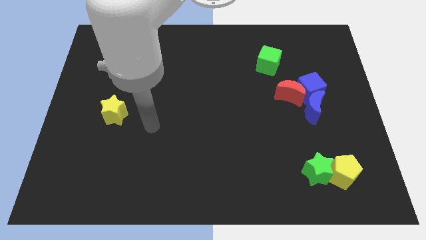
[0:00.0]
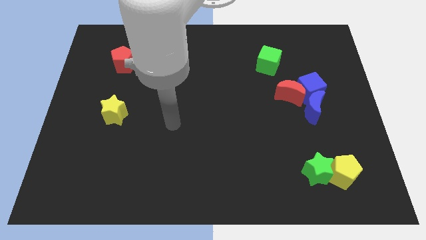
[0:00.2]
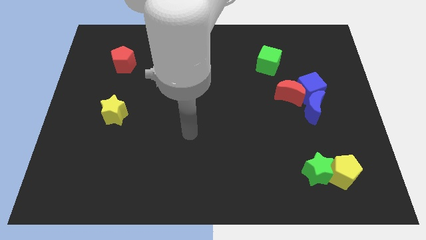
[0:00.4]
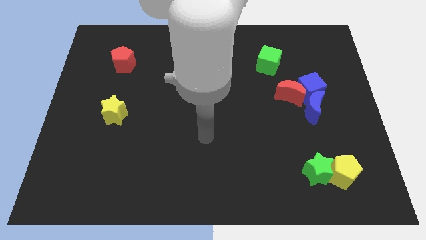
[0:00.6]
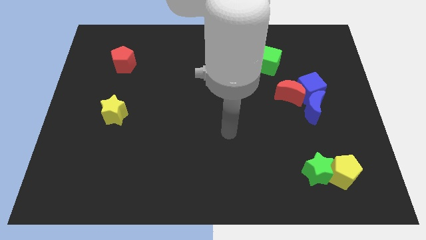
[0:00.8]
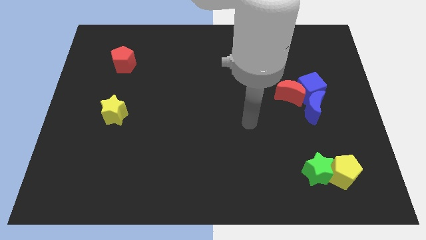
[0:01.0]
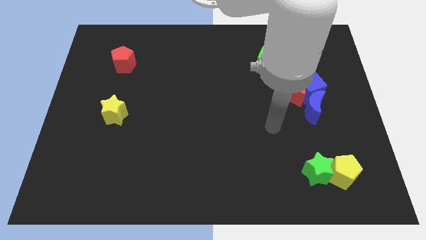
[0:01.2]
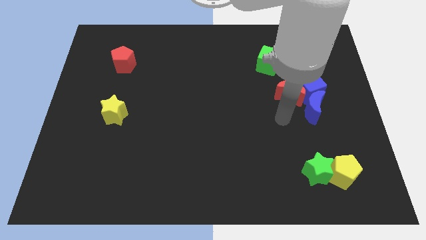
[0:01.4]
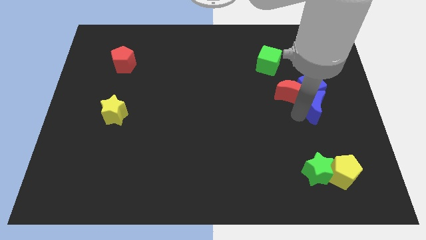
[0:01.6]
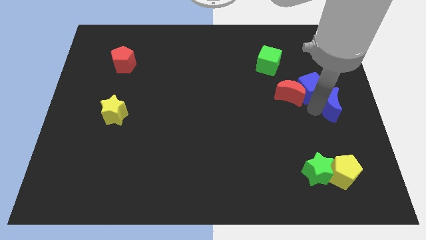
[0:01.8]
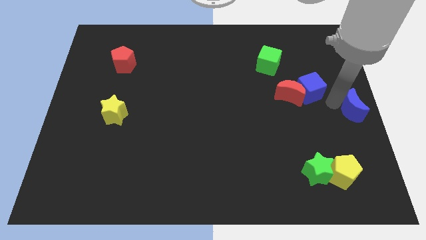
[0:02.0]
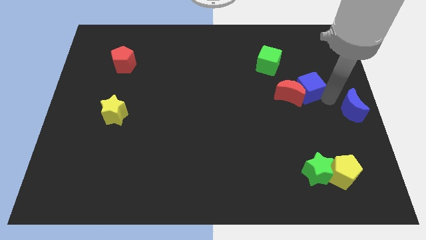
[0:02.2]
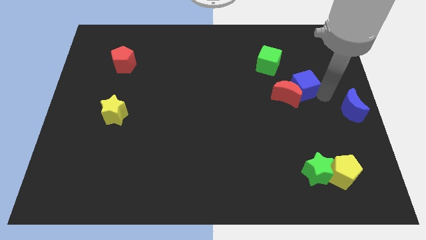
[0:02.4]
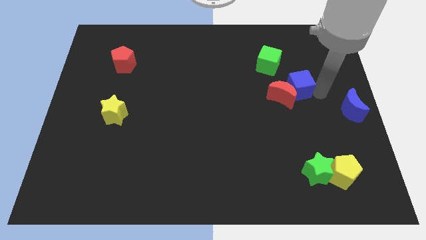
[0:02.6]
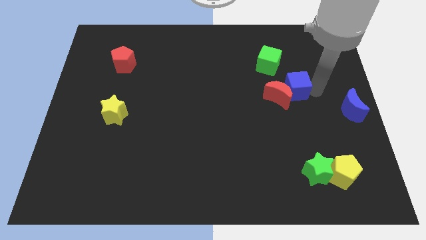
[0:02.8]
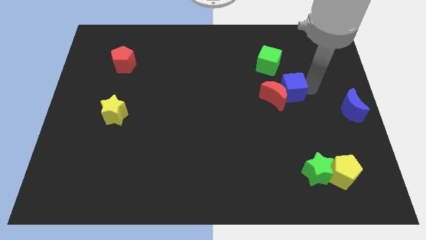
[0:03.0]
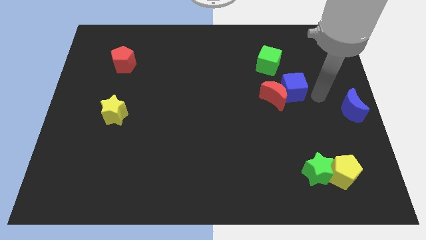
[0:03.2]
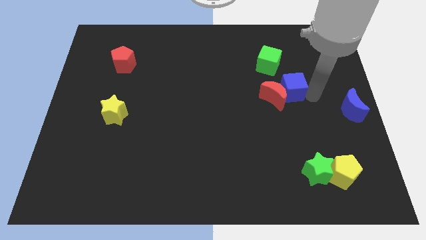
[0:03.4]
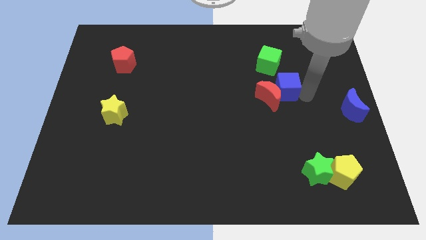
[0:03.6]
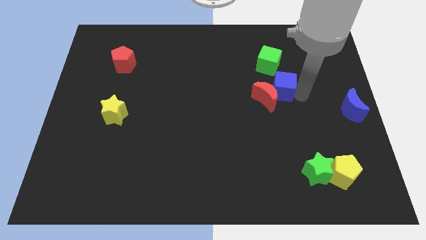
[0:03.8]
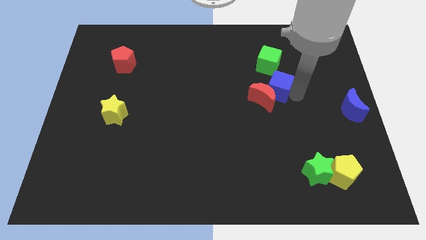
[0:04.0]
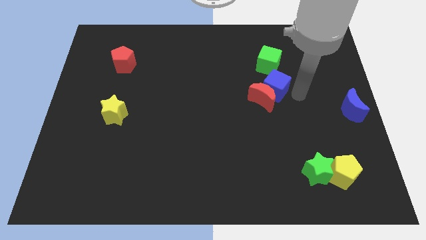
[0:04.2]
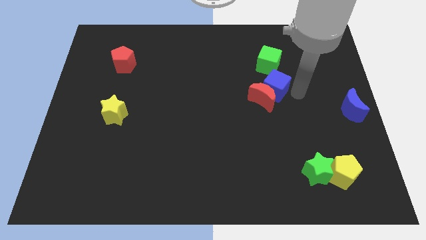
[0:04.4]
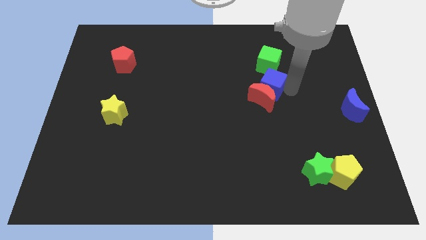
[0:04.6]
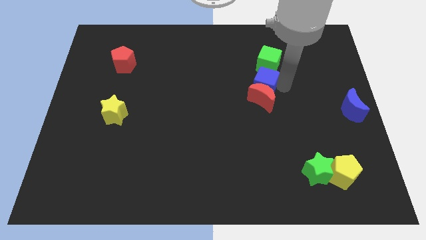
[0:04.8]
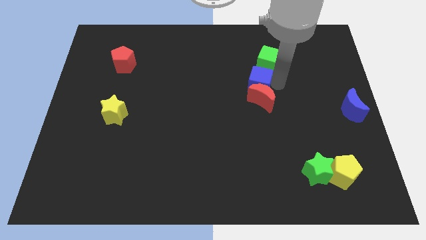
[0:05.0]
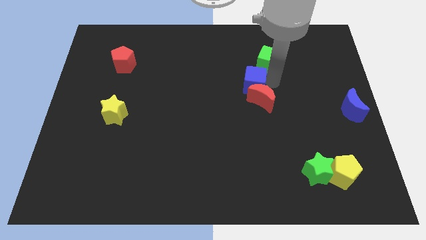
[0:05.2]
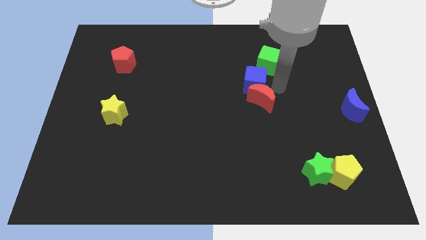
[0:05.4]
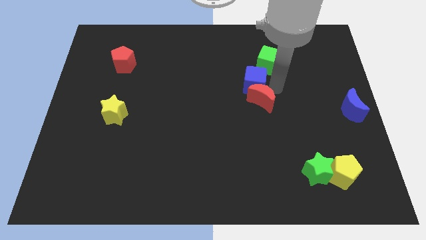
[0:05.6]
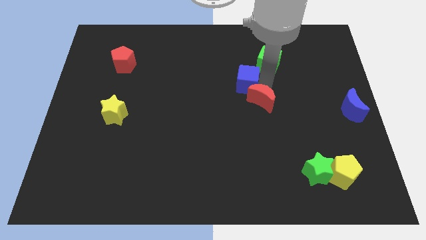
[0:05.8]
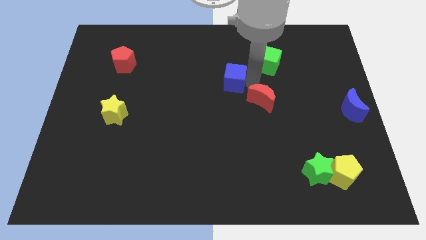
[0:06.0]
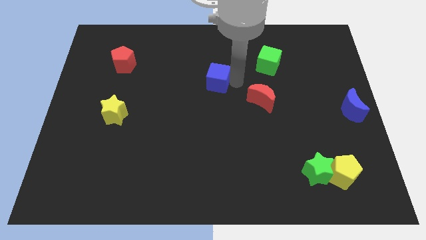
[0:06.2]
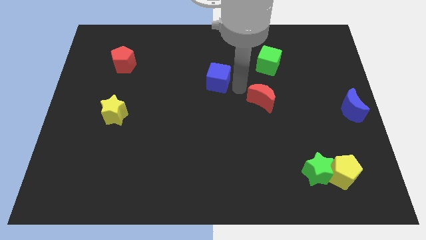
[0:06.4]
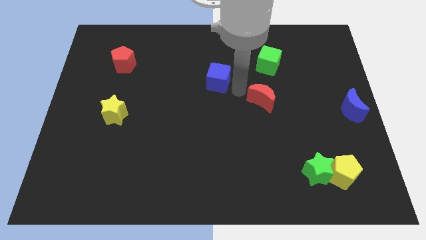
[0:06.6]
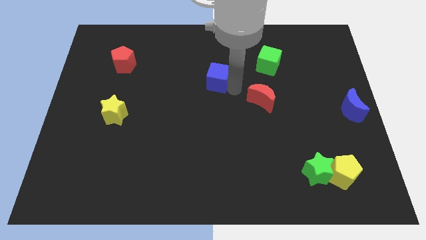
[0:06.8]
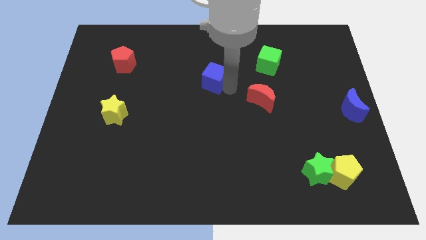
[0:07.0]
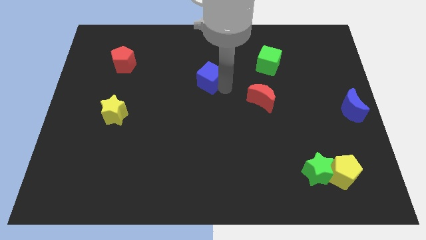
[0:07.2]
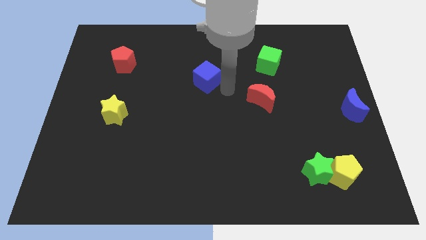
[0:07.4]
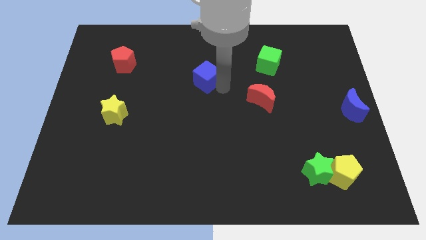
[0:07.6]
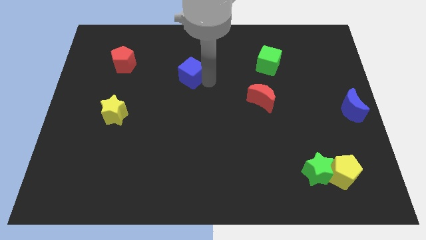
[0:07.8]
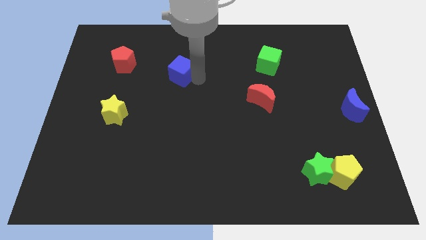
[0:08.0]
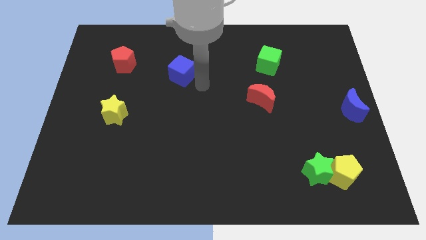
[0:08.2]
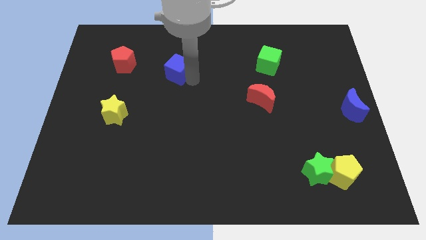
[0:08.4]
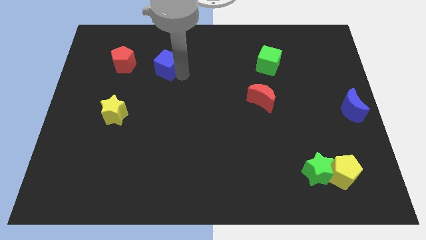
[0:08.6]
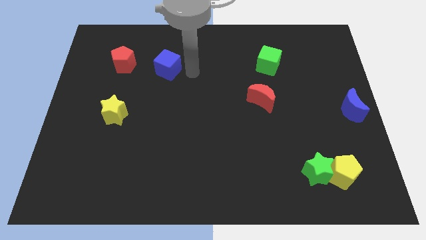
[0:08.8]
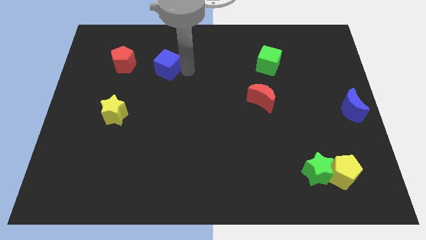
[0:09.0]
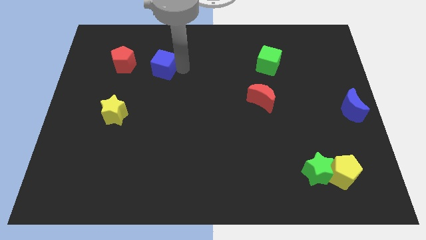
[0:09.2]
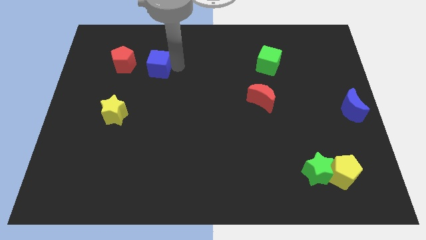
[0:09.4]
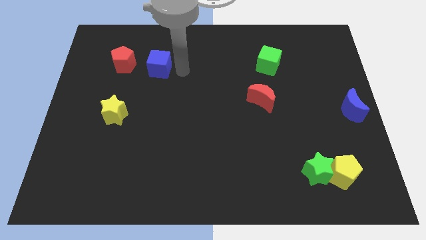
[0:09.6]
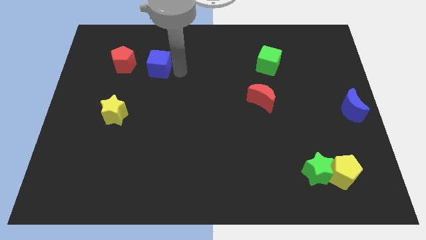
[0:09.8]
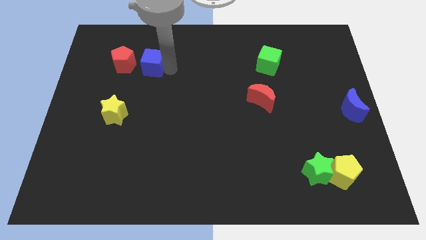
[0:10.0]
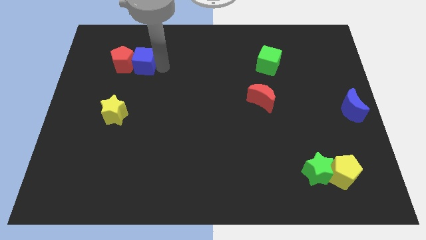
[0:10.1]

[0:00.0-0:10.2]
put the blue cube next to the red pentagon

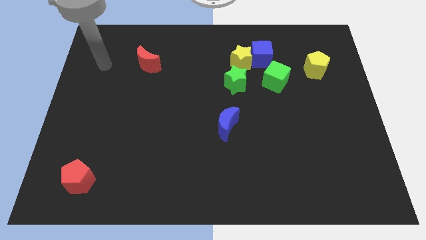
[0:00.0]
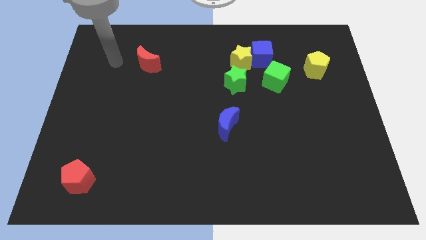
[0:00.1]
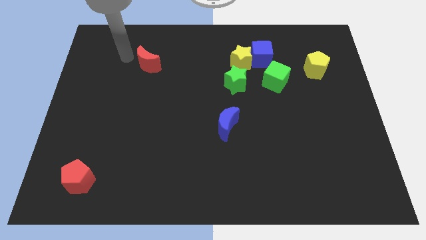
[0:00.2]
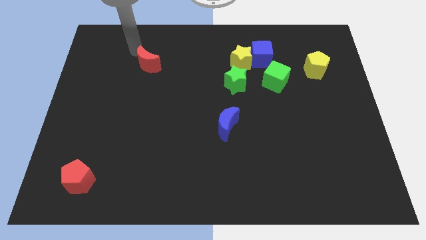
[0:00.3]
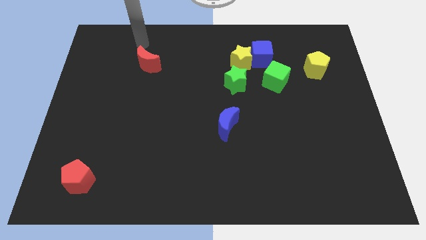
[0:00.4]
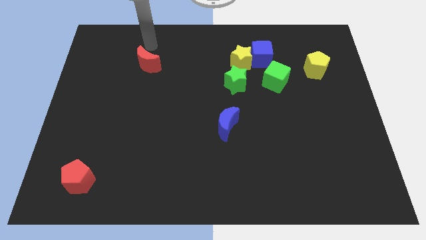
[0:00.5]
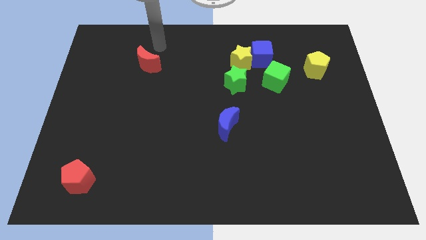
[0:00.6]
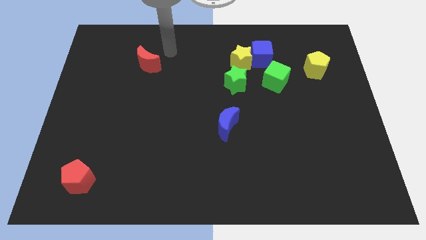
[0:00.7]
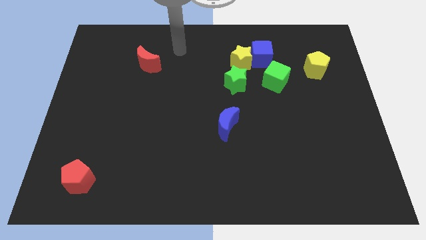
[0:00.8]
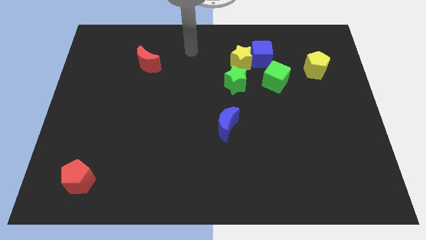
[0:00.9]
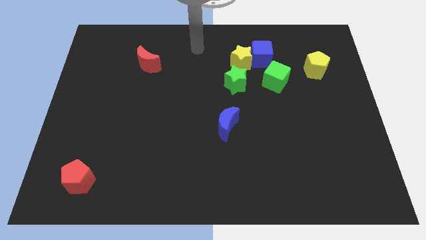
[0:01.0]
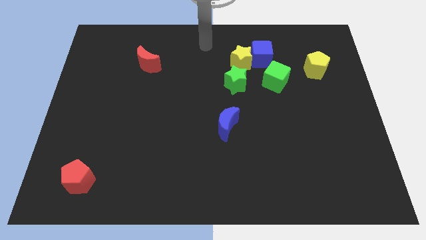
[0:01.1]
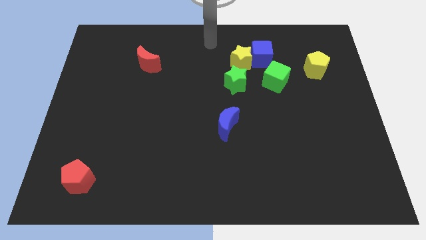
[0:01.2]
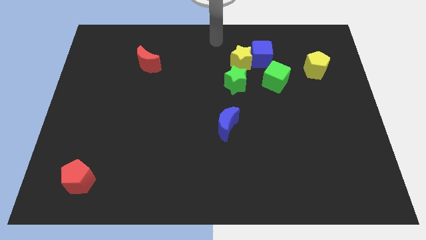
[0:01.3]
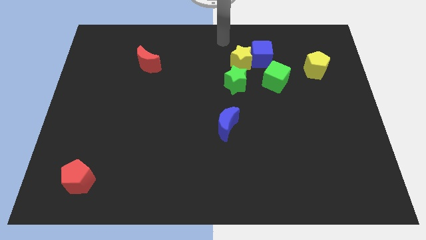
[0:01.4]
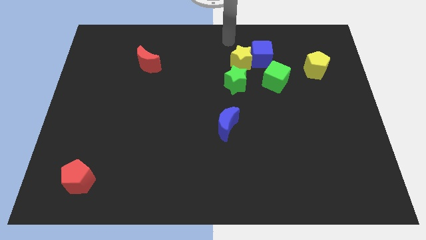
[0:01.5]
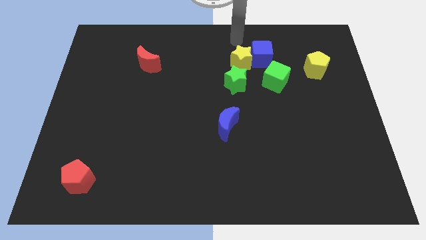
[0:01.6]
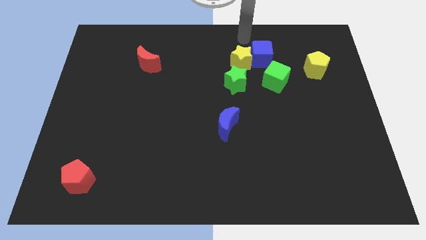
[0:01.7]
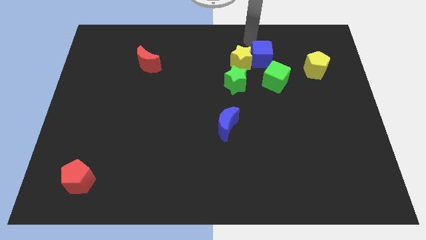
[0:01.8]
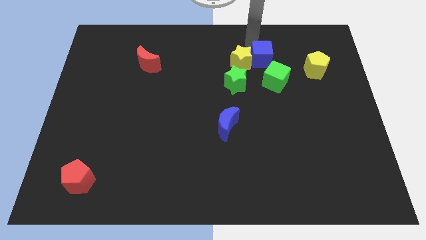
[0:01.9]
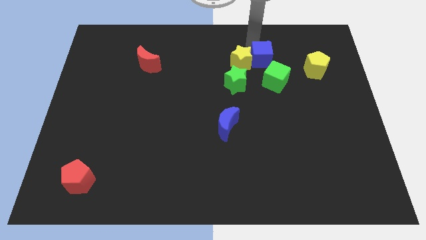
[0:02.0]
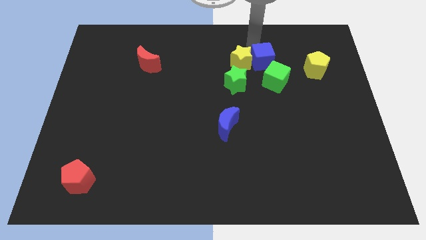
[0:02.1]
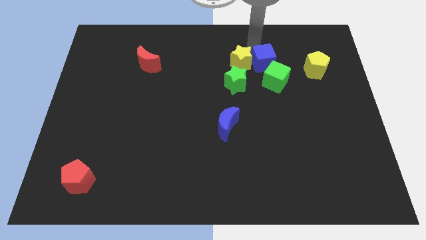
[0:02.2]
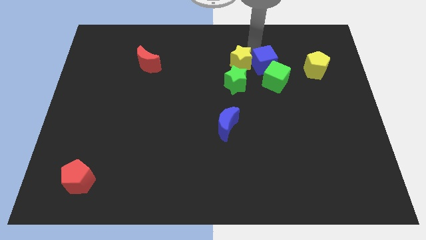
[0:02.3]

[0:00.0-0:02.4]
push the blue cube towards the green cube

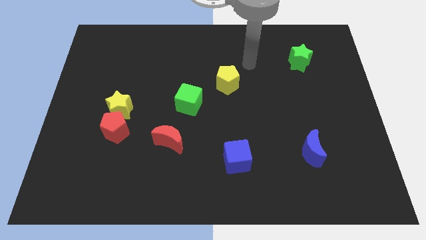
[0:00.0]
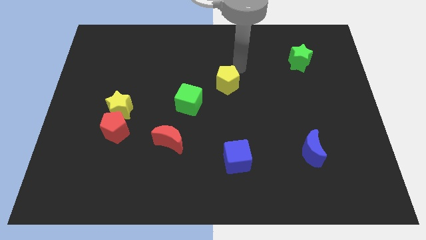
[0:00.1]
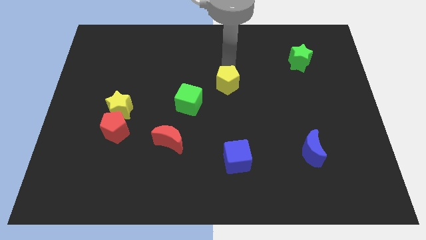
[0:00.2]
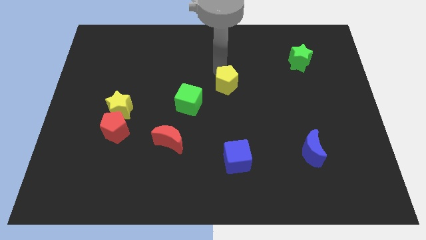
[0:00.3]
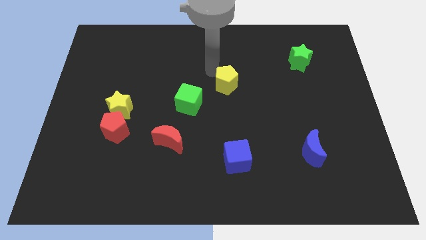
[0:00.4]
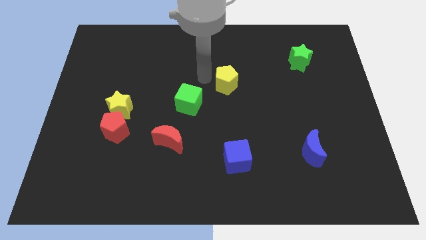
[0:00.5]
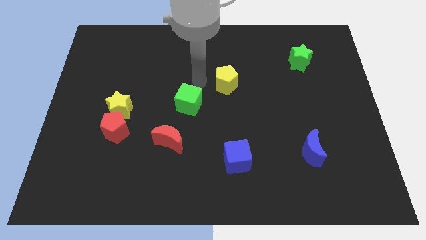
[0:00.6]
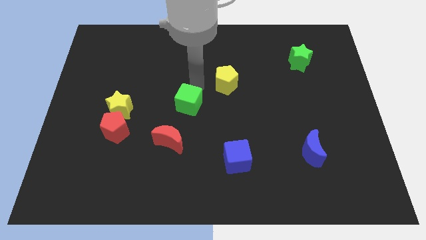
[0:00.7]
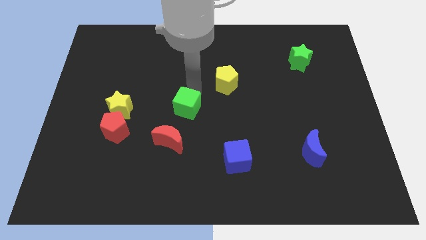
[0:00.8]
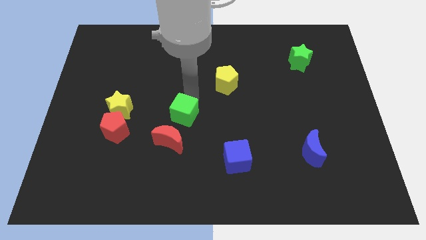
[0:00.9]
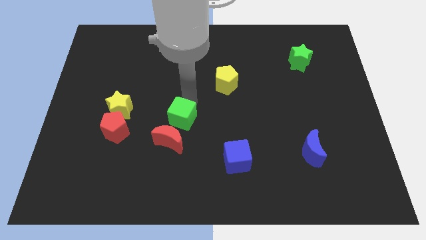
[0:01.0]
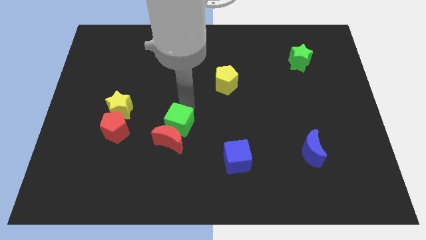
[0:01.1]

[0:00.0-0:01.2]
move the green cube towards the red moon
